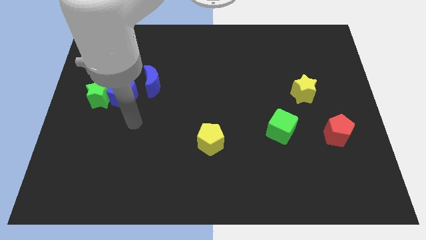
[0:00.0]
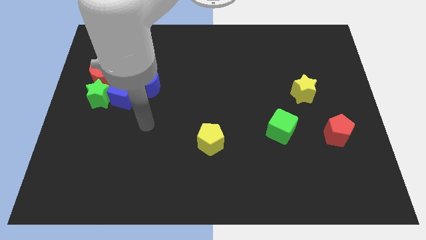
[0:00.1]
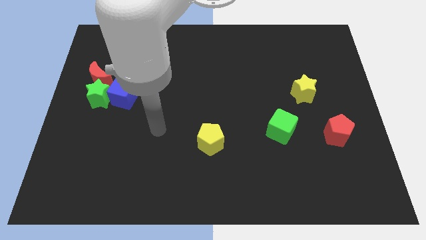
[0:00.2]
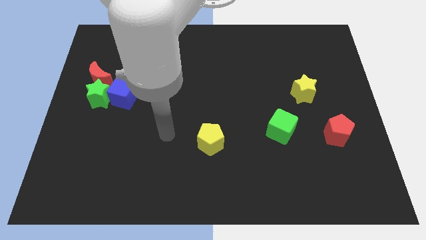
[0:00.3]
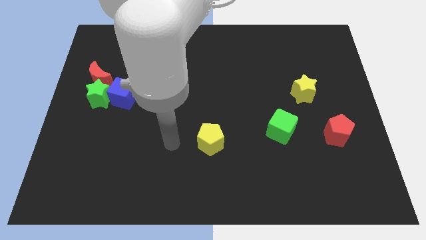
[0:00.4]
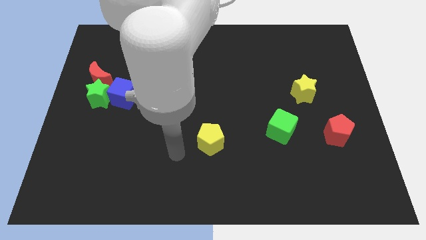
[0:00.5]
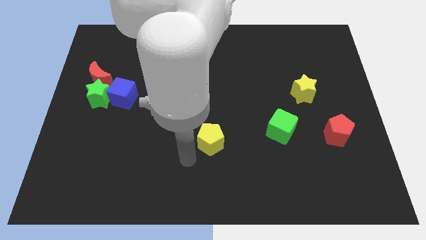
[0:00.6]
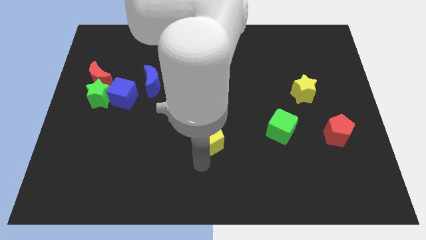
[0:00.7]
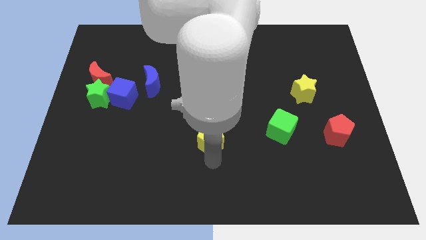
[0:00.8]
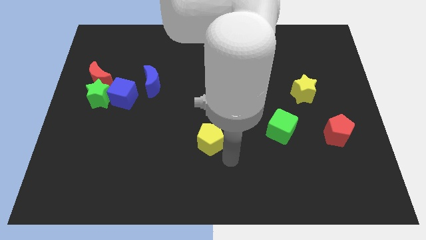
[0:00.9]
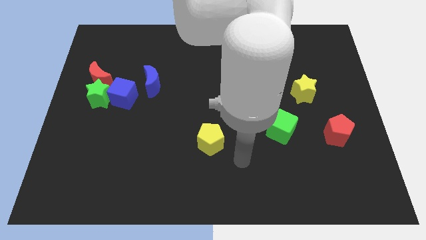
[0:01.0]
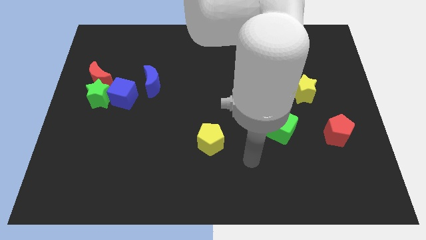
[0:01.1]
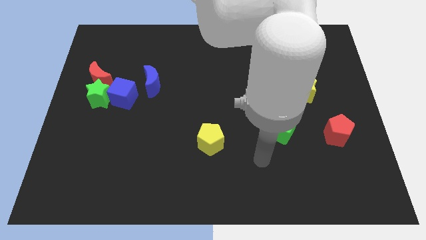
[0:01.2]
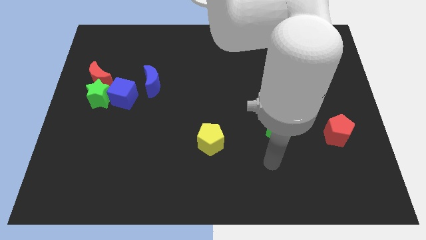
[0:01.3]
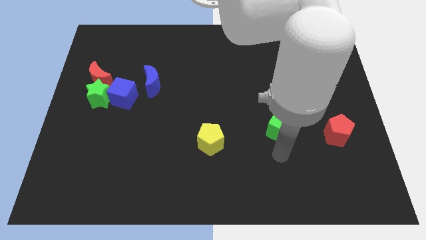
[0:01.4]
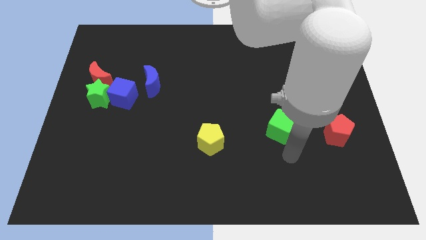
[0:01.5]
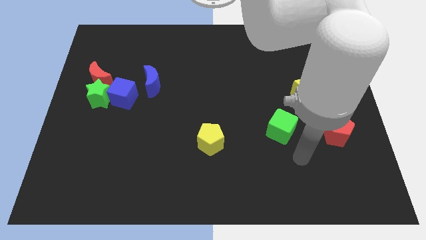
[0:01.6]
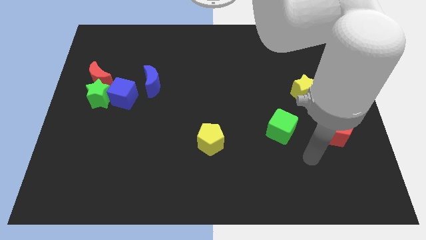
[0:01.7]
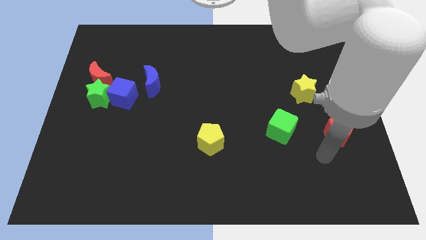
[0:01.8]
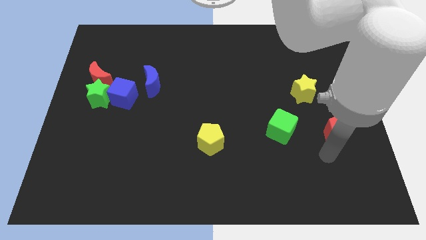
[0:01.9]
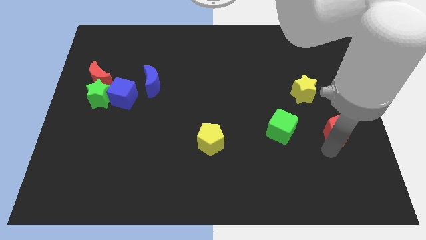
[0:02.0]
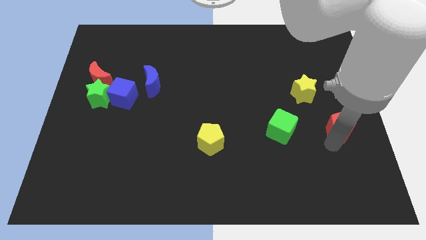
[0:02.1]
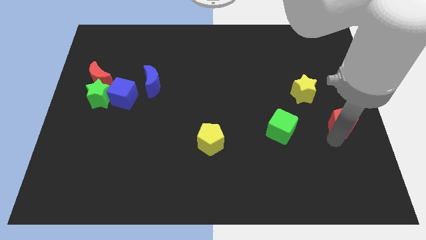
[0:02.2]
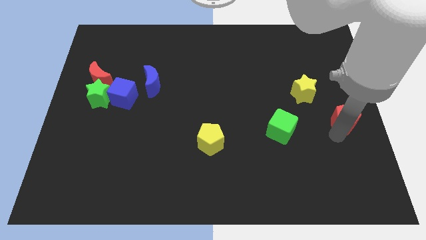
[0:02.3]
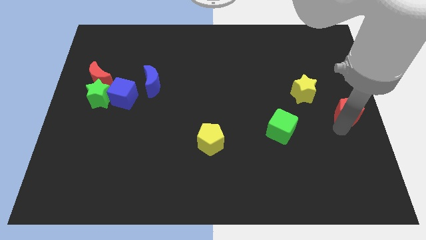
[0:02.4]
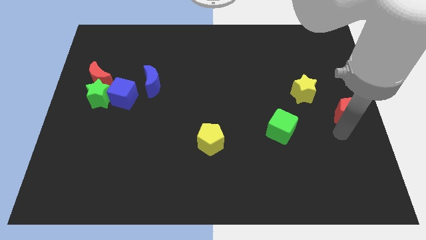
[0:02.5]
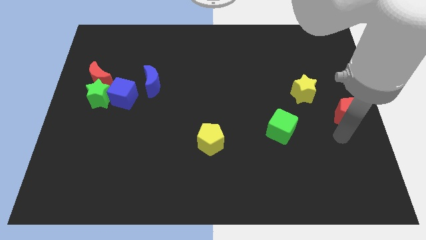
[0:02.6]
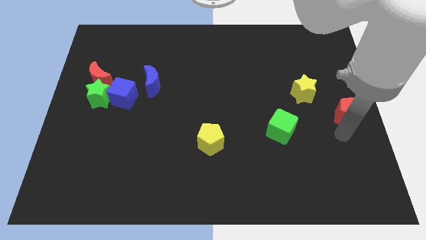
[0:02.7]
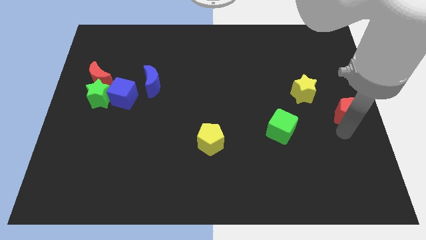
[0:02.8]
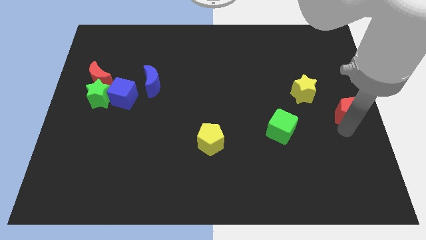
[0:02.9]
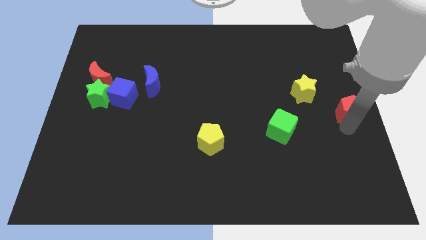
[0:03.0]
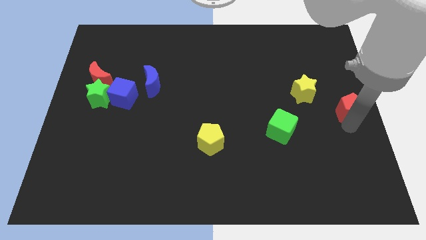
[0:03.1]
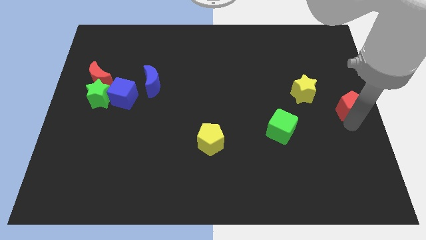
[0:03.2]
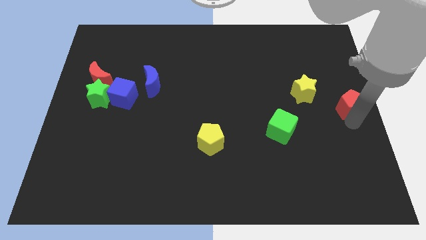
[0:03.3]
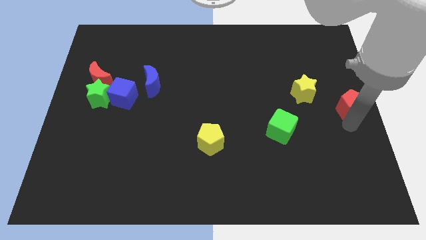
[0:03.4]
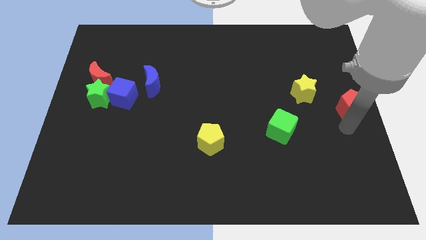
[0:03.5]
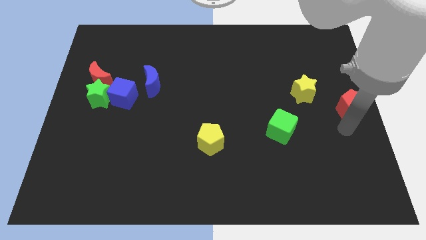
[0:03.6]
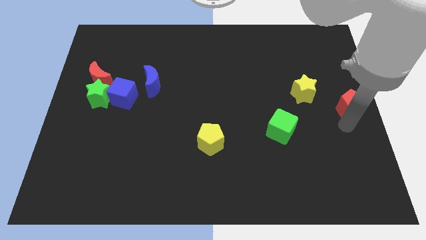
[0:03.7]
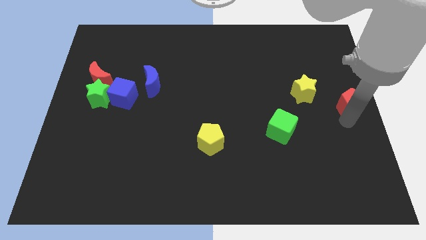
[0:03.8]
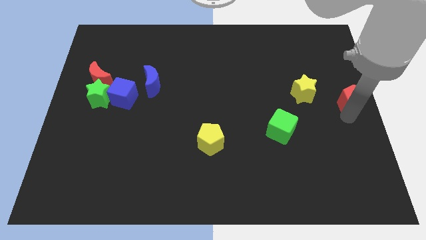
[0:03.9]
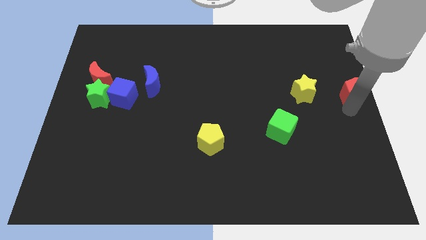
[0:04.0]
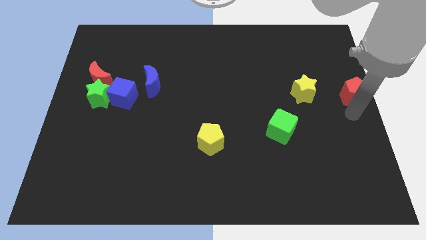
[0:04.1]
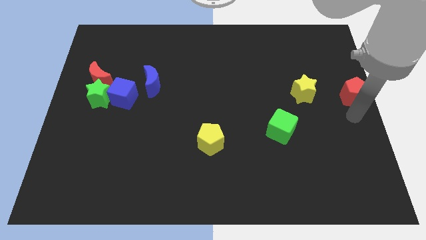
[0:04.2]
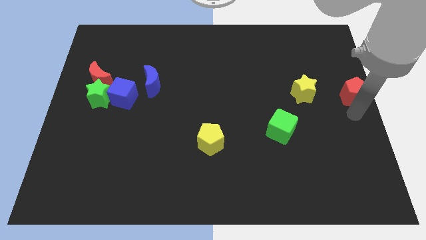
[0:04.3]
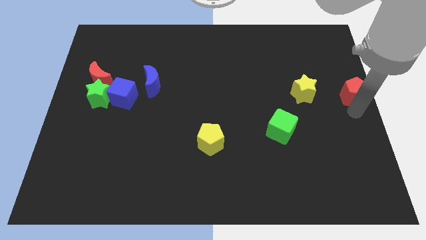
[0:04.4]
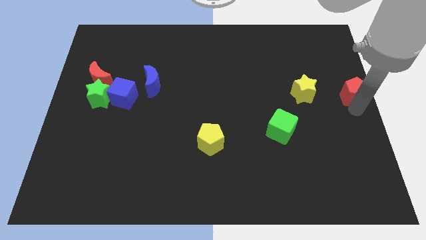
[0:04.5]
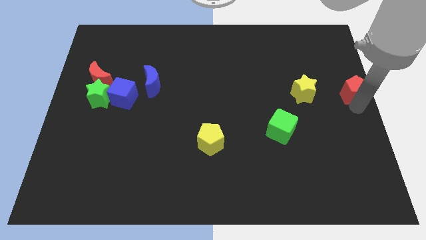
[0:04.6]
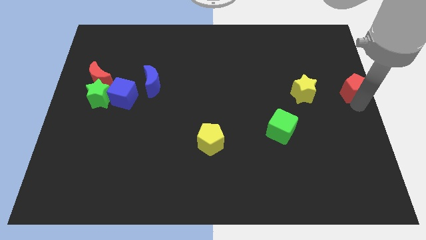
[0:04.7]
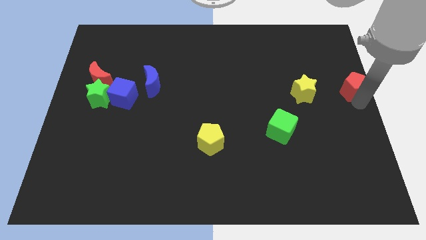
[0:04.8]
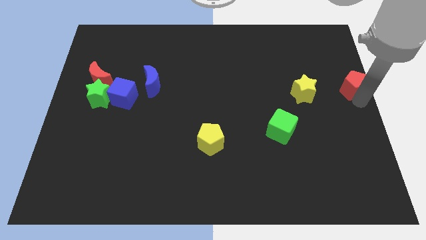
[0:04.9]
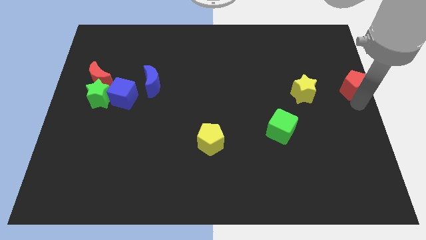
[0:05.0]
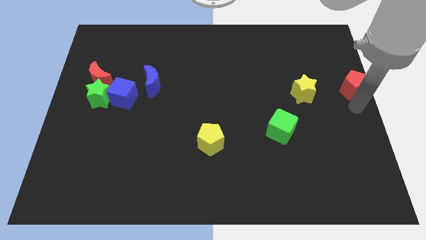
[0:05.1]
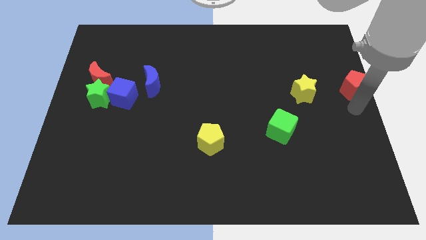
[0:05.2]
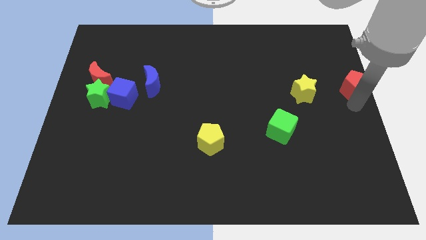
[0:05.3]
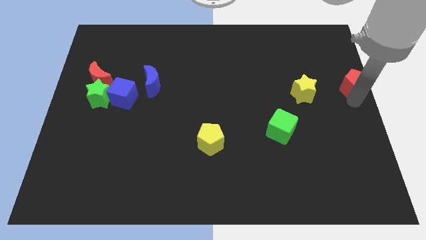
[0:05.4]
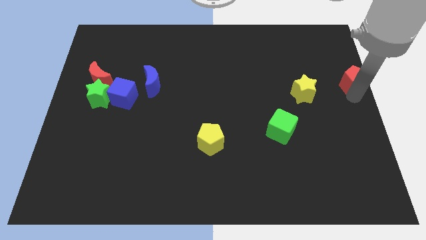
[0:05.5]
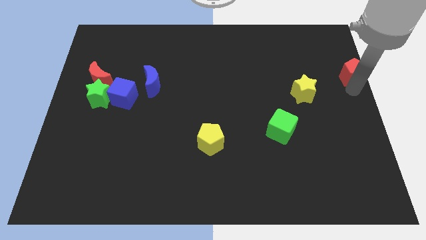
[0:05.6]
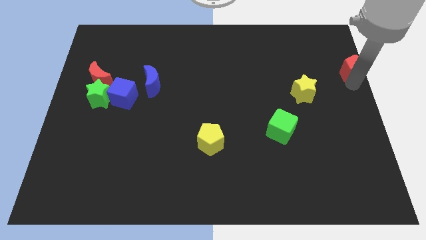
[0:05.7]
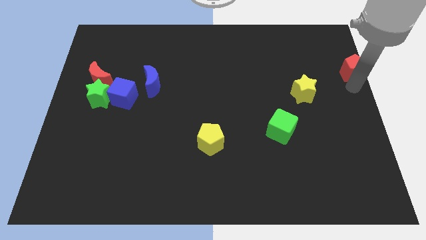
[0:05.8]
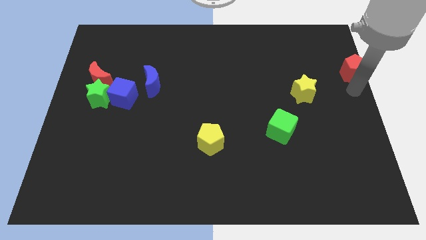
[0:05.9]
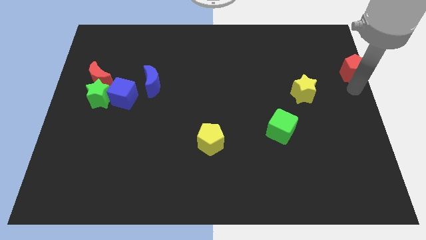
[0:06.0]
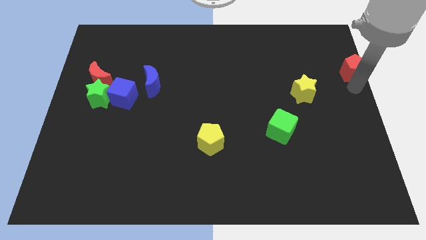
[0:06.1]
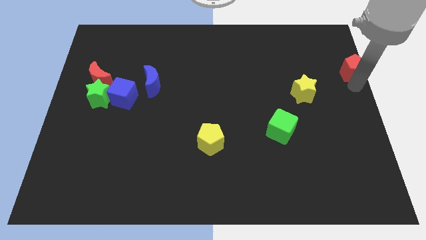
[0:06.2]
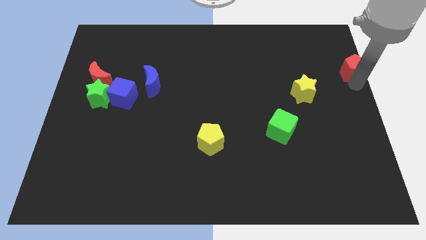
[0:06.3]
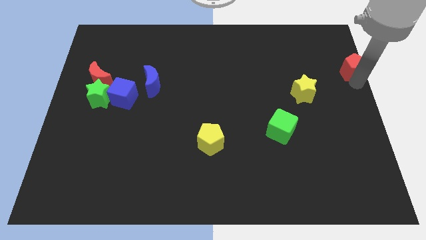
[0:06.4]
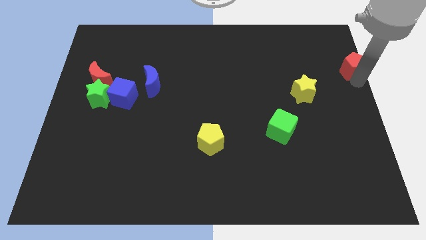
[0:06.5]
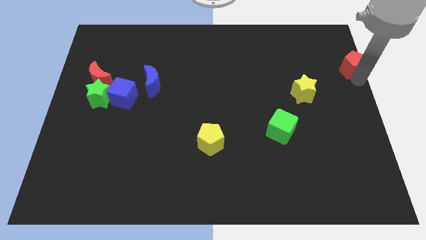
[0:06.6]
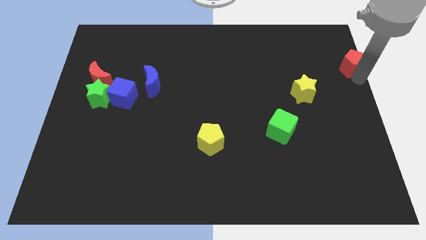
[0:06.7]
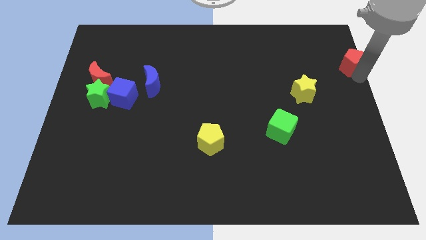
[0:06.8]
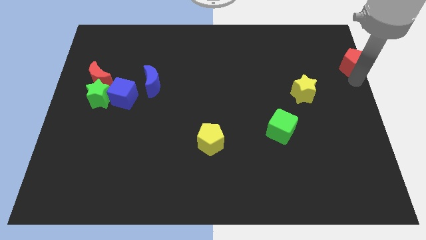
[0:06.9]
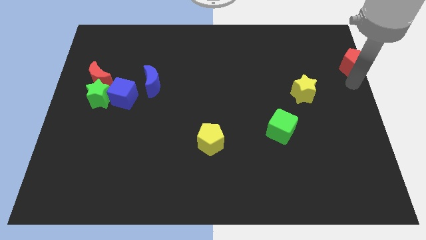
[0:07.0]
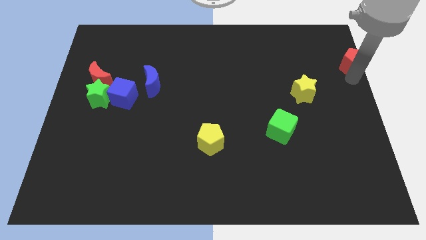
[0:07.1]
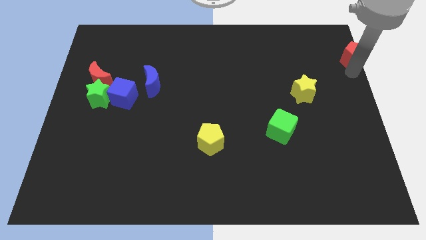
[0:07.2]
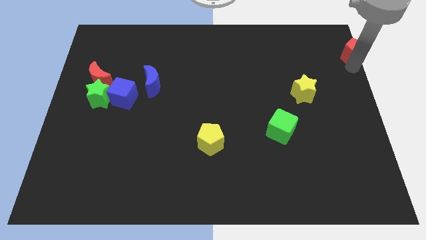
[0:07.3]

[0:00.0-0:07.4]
push the red pentagon to the upper right corner
